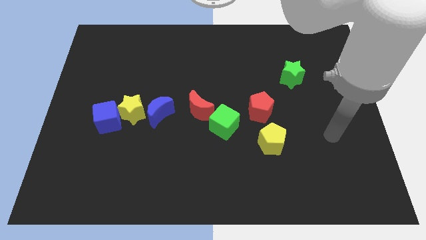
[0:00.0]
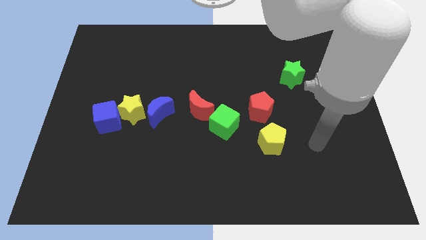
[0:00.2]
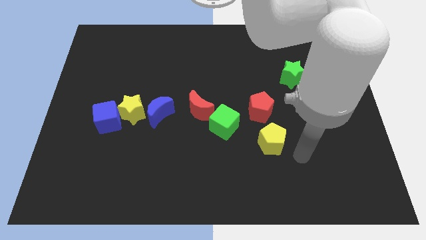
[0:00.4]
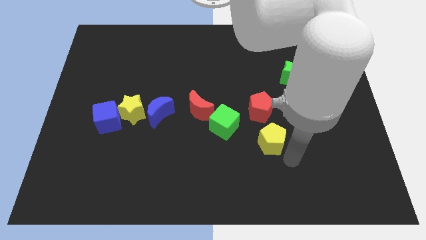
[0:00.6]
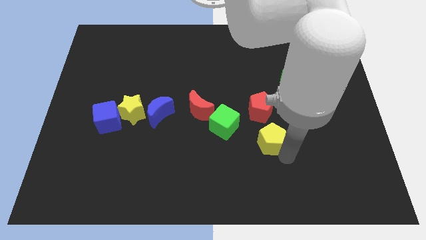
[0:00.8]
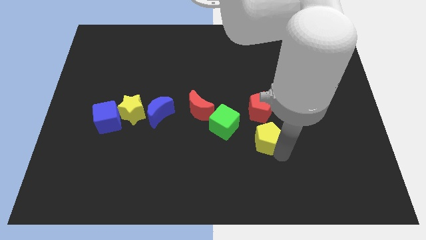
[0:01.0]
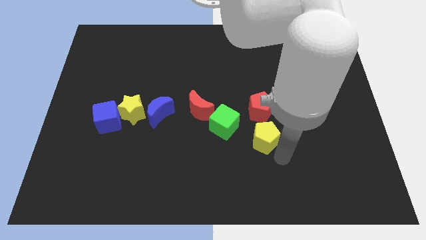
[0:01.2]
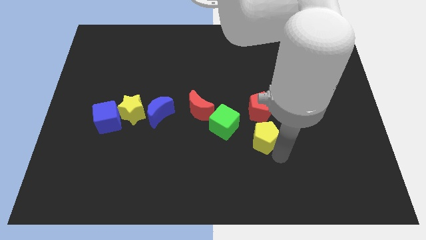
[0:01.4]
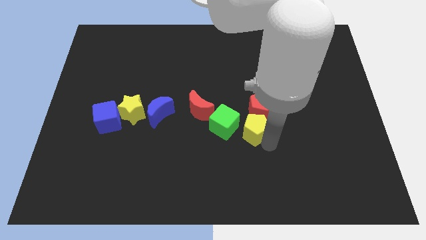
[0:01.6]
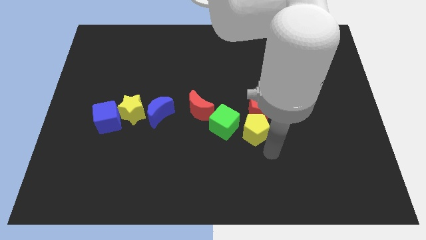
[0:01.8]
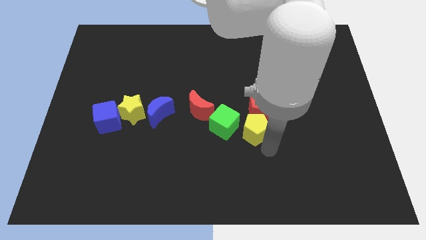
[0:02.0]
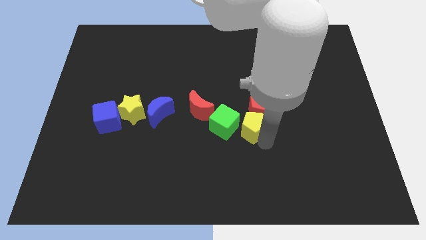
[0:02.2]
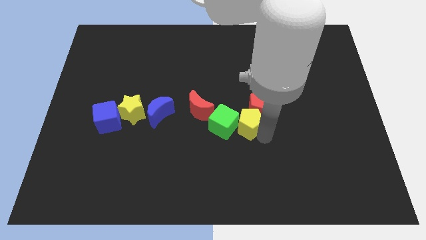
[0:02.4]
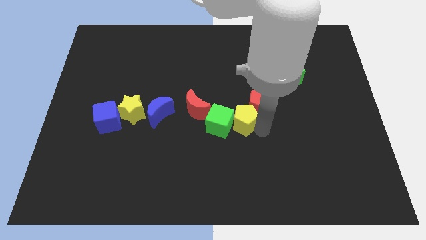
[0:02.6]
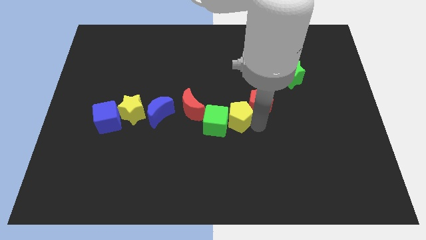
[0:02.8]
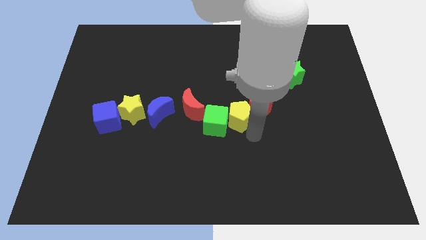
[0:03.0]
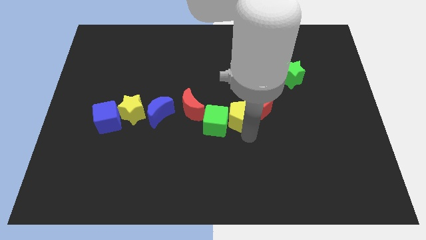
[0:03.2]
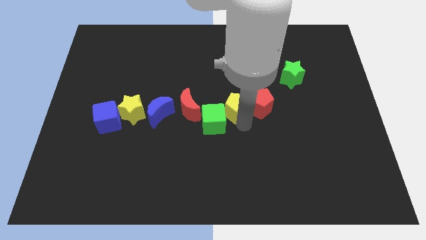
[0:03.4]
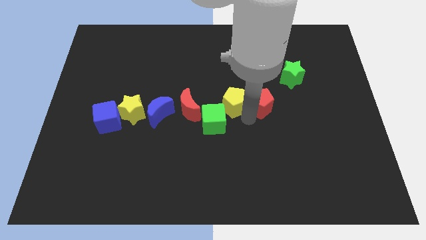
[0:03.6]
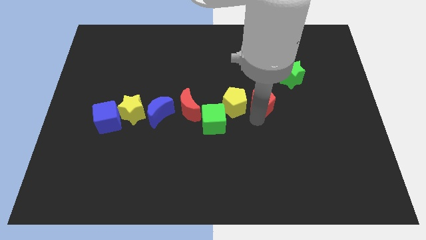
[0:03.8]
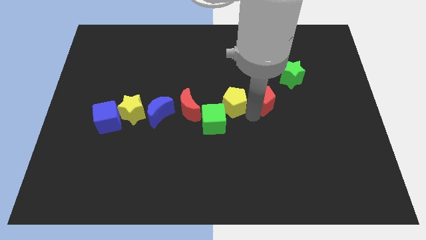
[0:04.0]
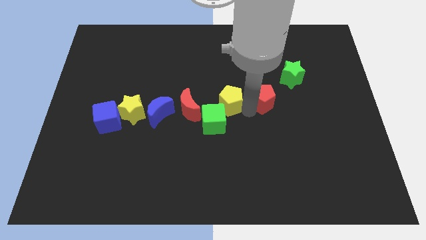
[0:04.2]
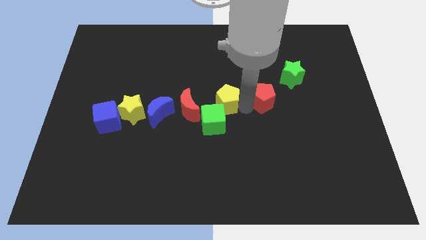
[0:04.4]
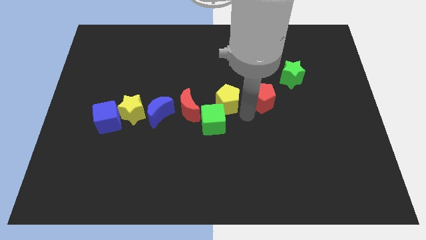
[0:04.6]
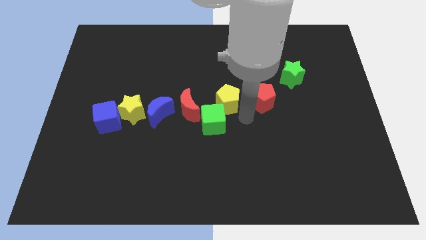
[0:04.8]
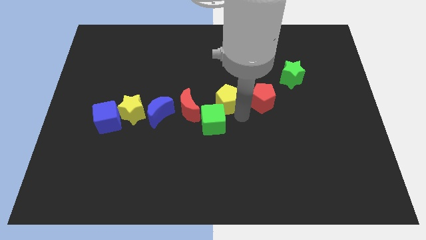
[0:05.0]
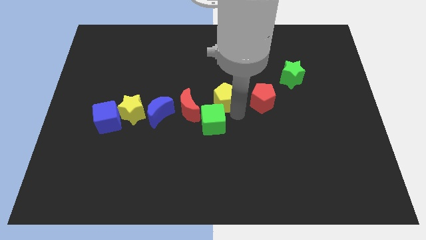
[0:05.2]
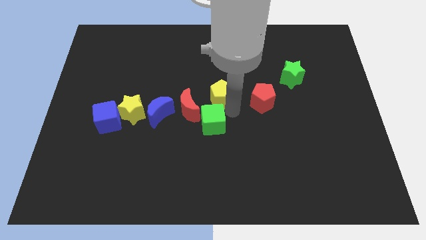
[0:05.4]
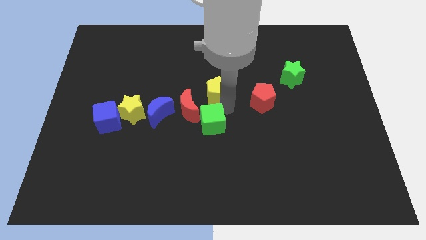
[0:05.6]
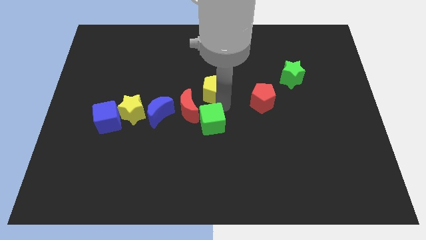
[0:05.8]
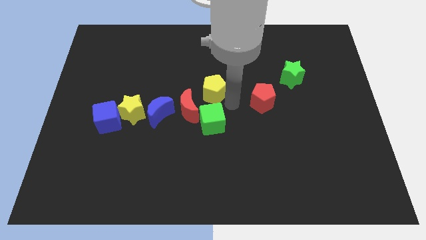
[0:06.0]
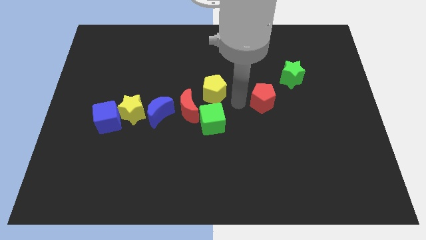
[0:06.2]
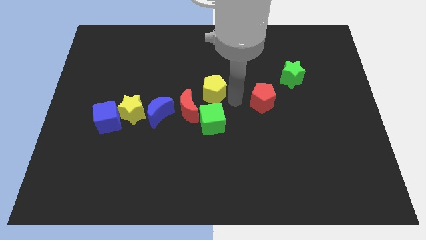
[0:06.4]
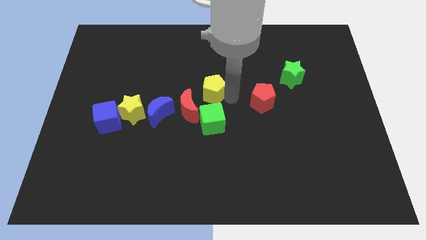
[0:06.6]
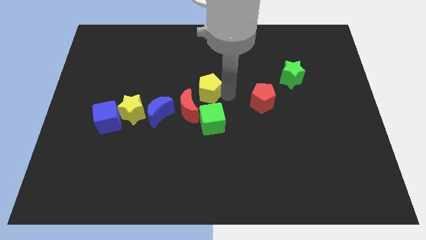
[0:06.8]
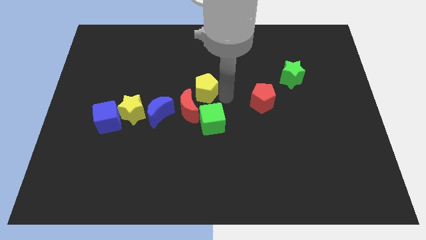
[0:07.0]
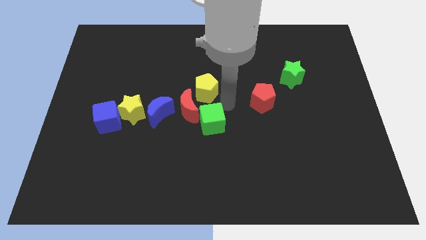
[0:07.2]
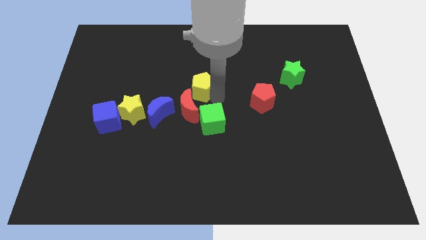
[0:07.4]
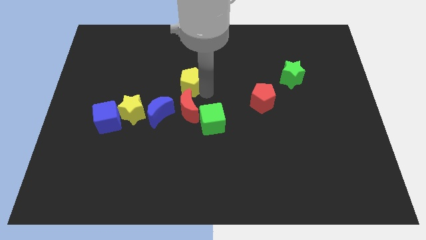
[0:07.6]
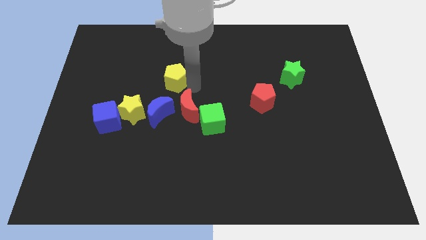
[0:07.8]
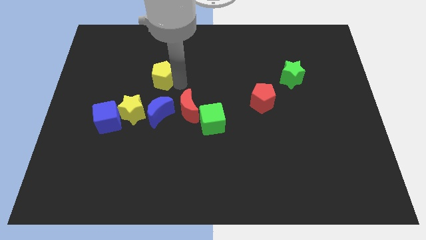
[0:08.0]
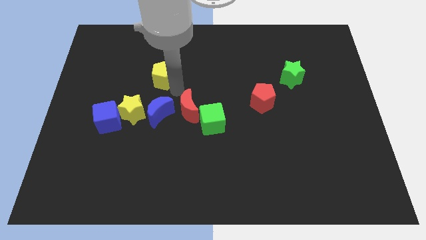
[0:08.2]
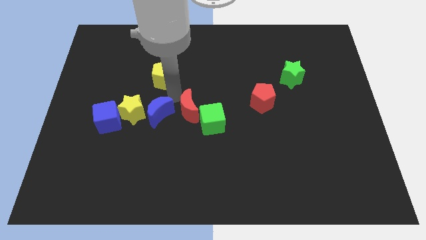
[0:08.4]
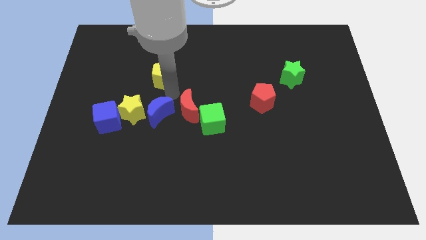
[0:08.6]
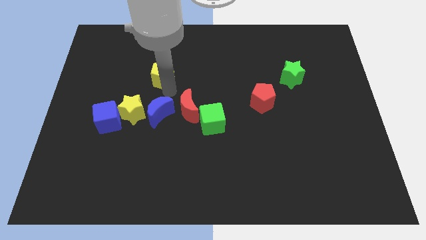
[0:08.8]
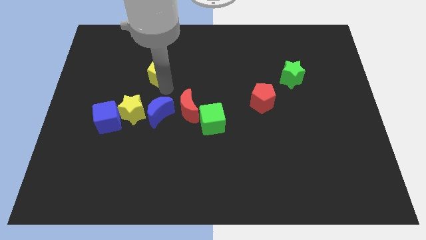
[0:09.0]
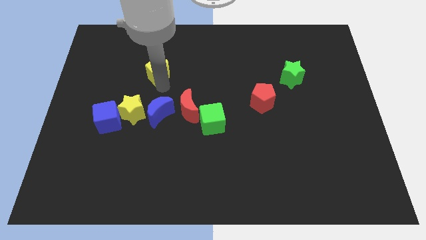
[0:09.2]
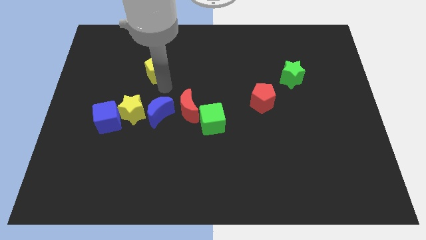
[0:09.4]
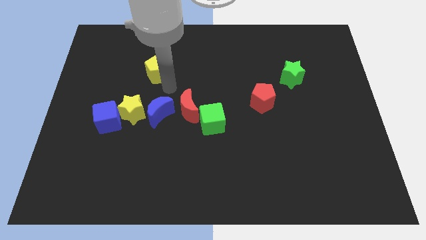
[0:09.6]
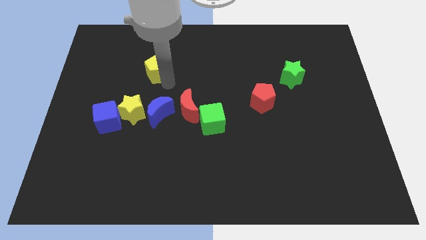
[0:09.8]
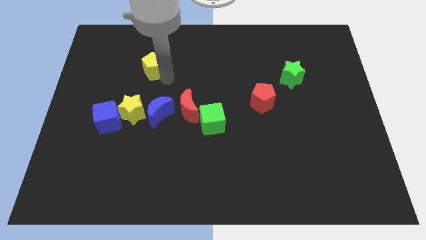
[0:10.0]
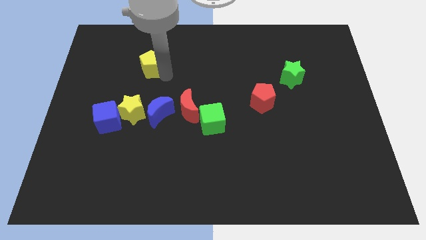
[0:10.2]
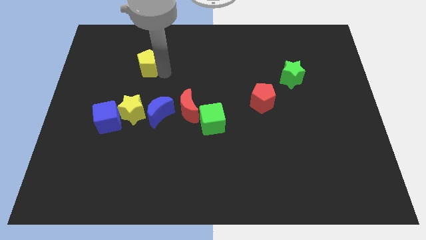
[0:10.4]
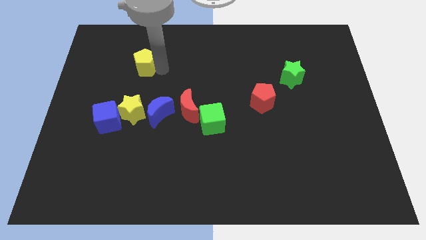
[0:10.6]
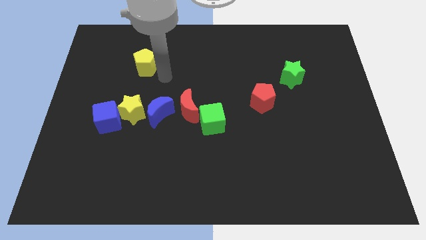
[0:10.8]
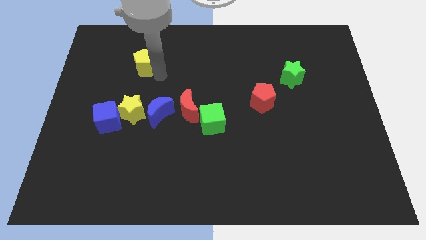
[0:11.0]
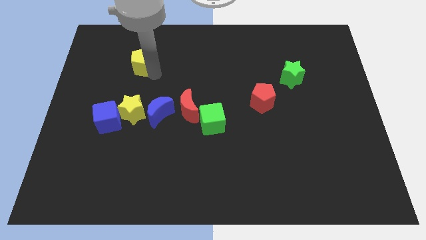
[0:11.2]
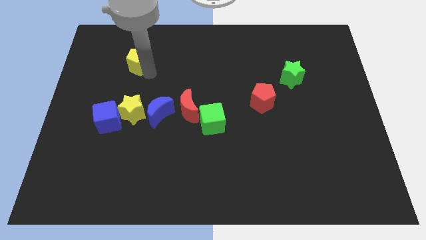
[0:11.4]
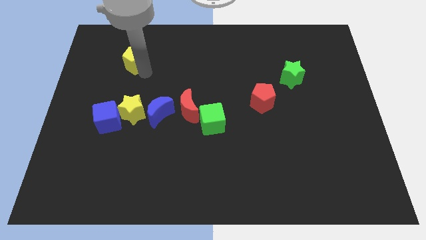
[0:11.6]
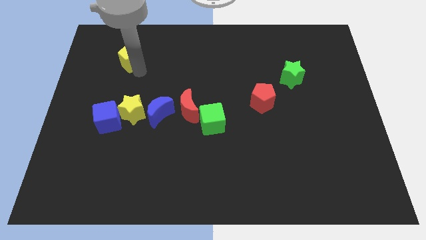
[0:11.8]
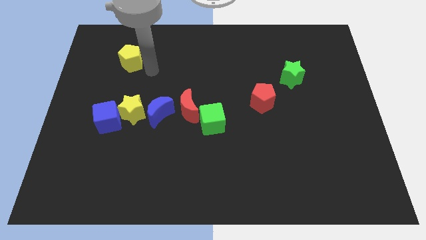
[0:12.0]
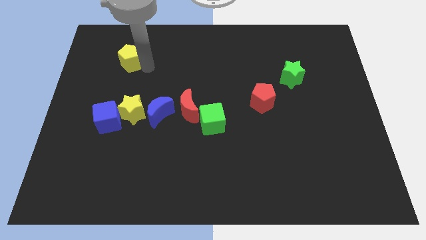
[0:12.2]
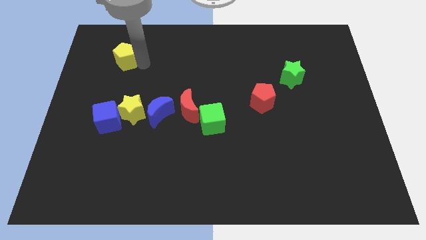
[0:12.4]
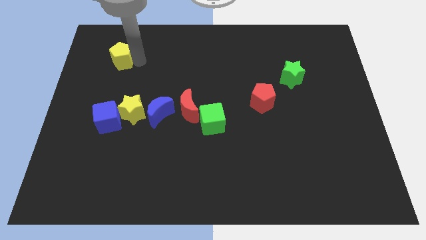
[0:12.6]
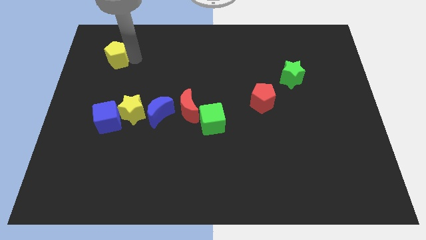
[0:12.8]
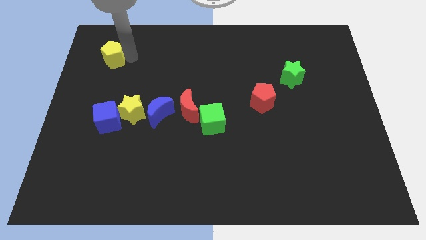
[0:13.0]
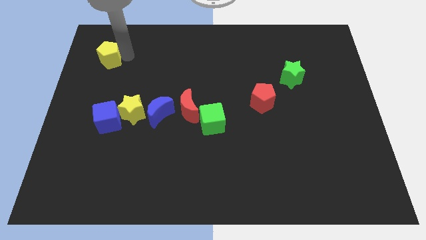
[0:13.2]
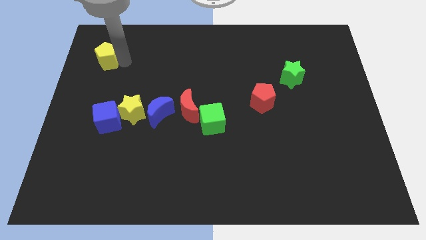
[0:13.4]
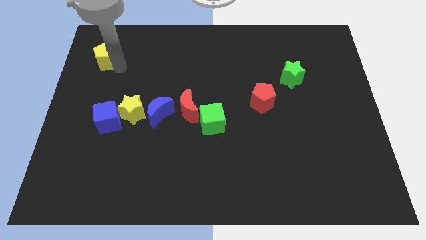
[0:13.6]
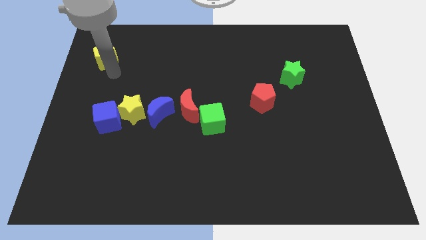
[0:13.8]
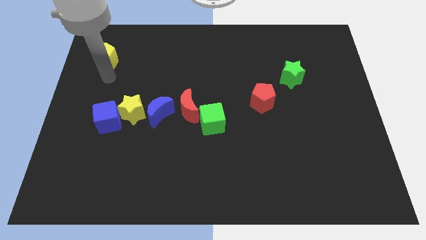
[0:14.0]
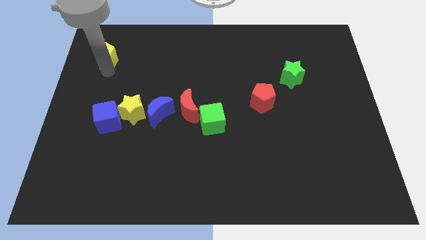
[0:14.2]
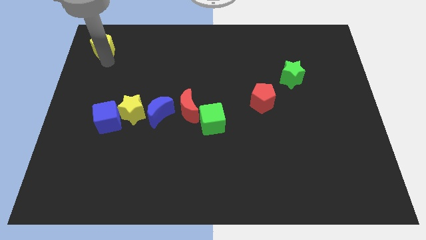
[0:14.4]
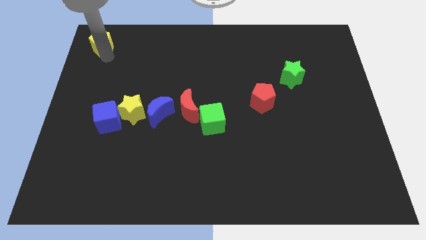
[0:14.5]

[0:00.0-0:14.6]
slide the yellow pentagon to the top left
